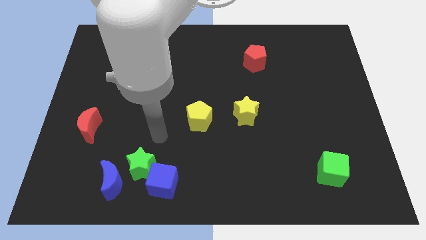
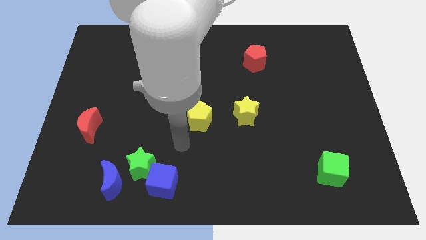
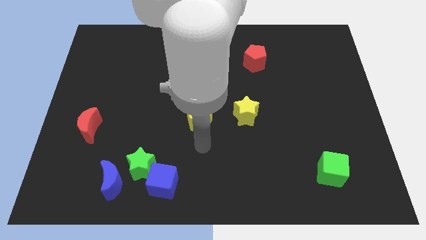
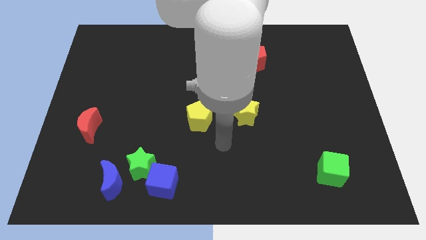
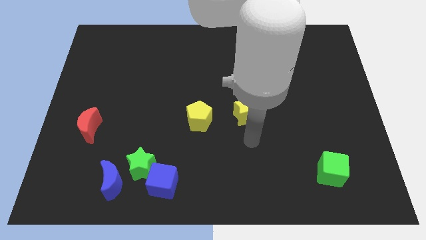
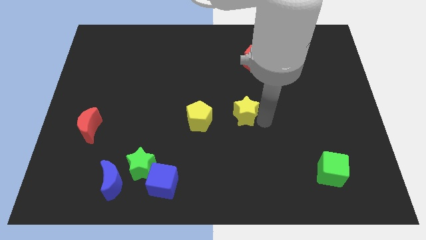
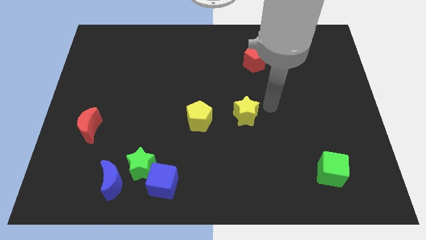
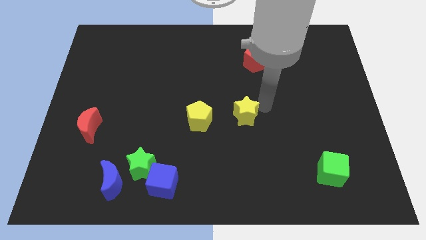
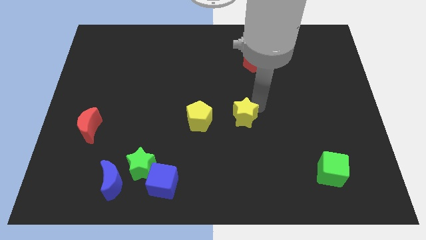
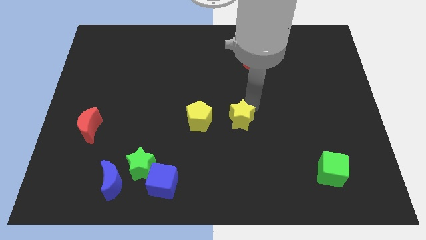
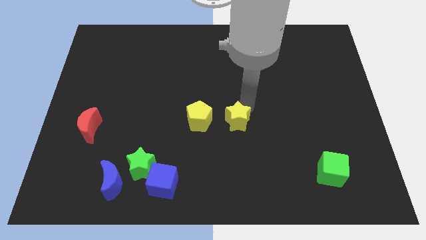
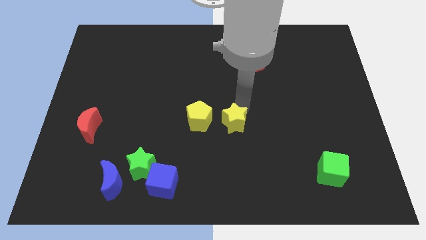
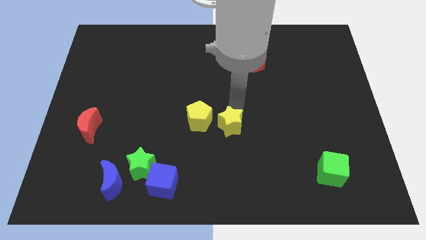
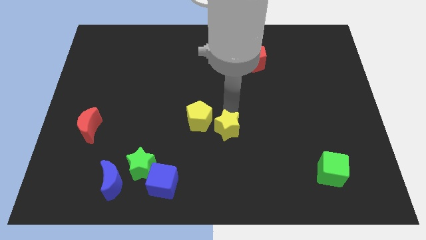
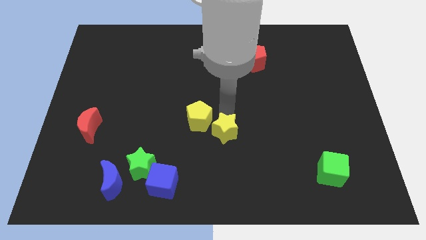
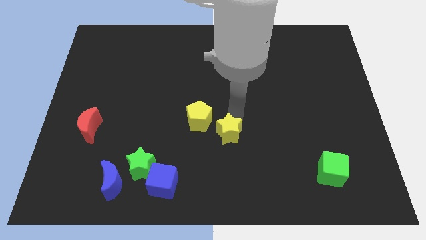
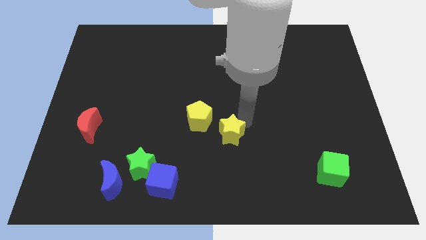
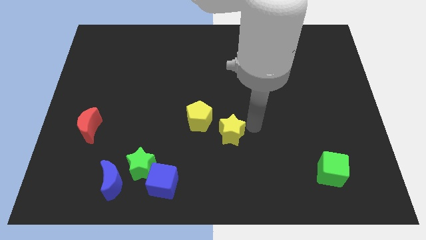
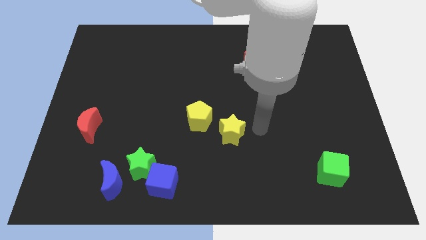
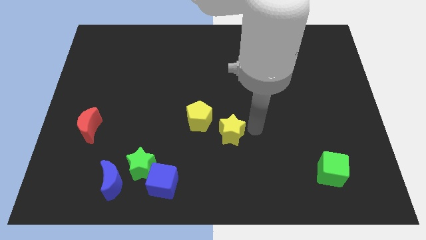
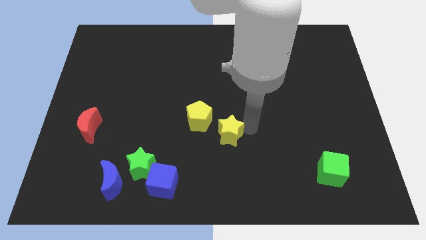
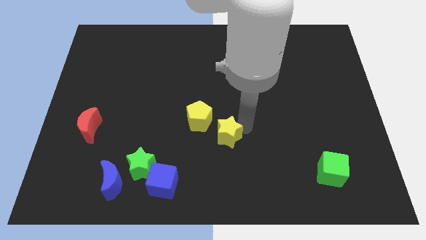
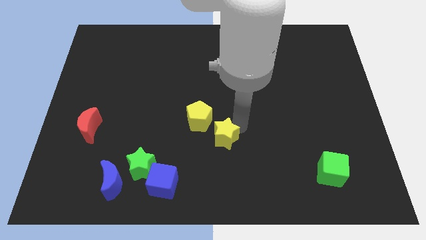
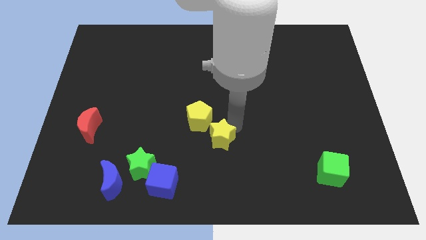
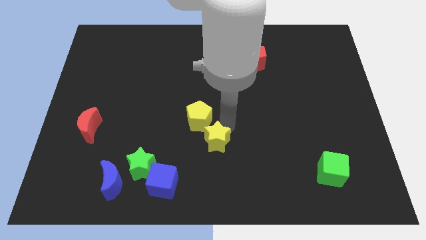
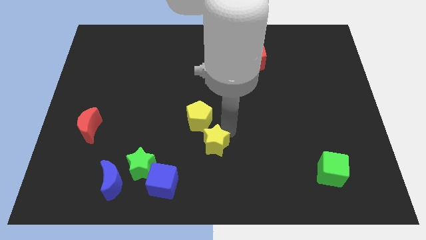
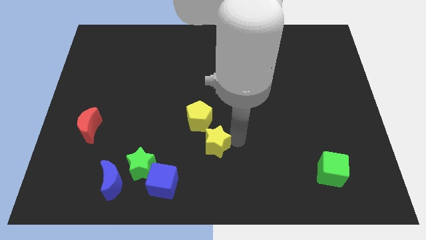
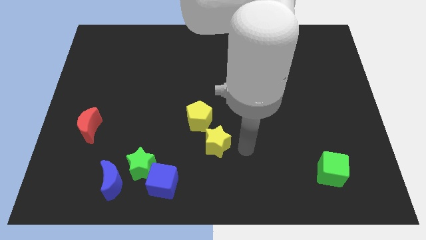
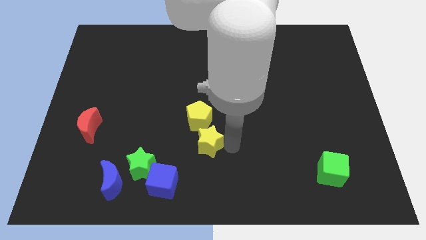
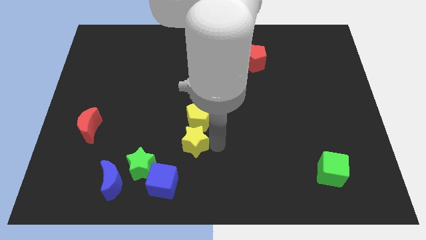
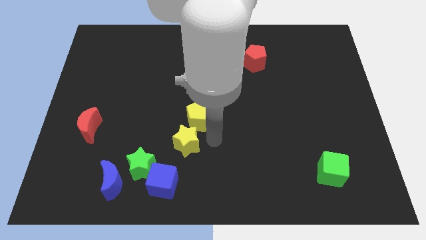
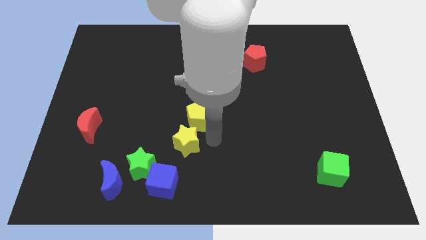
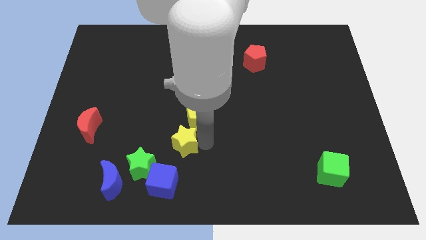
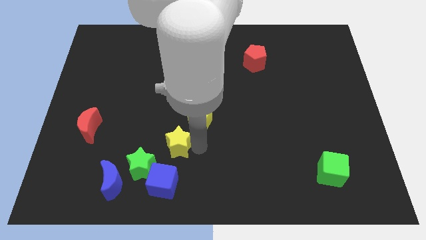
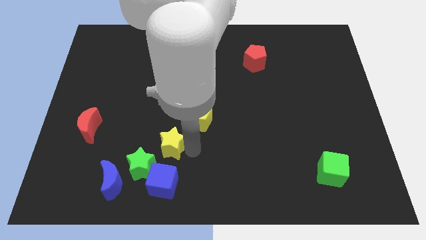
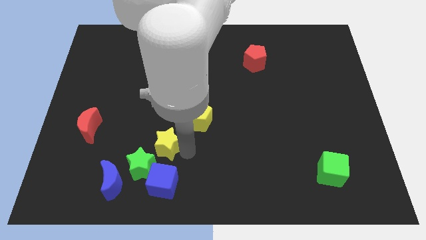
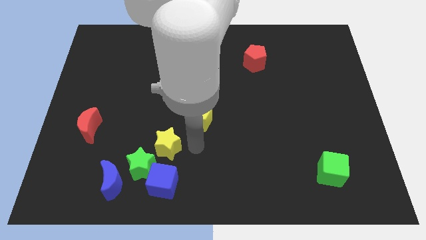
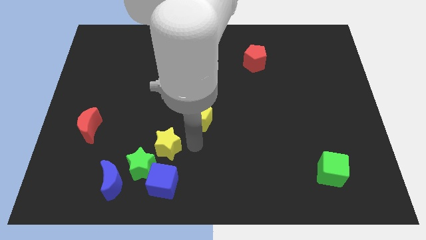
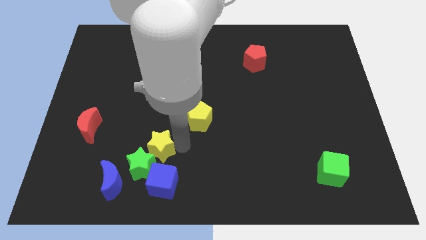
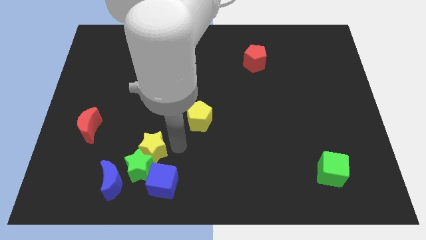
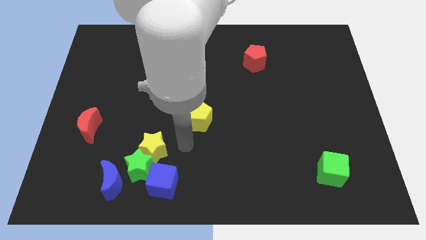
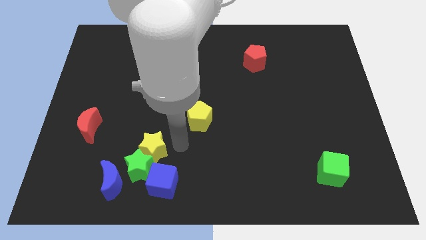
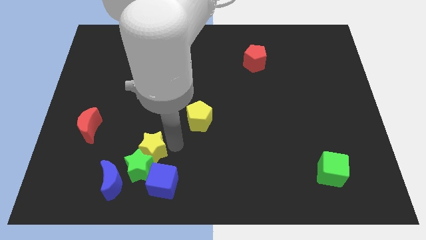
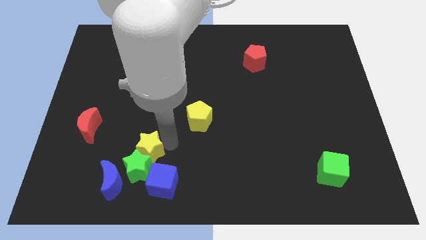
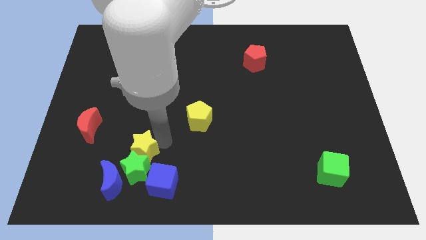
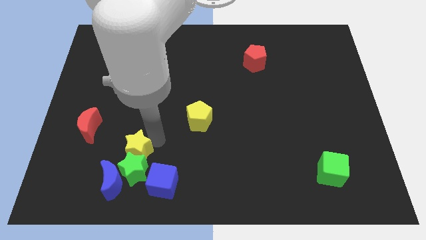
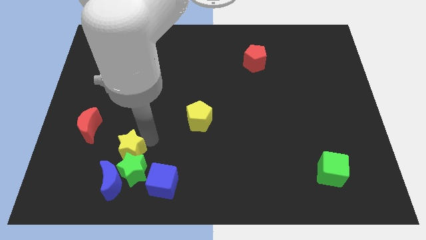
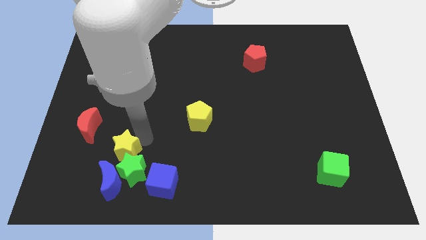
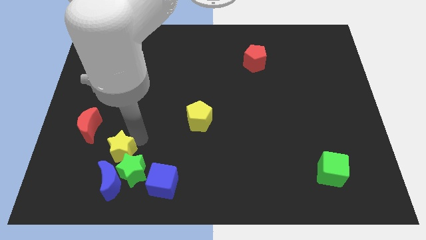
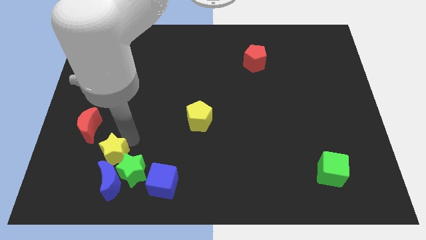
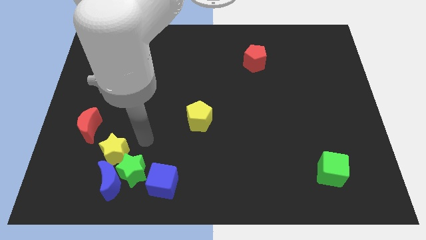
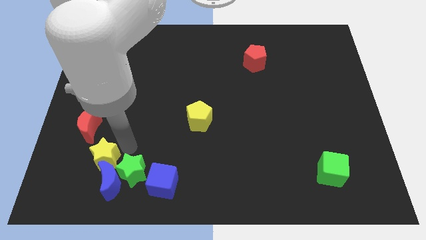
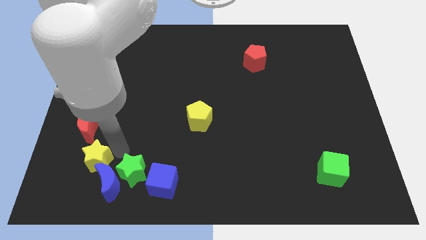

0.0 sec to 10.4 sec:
slide the yellow star to the bottom side of the red moon

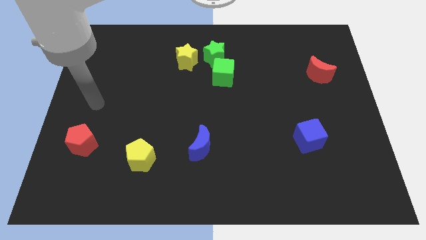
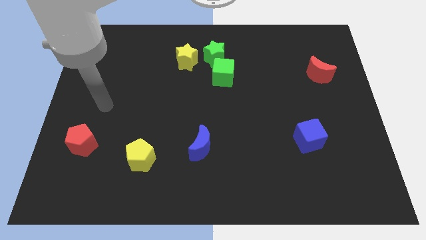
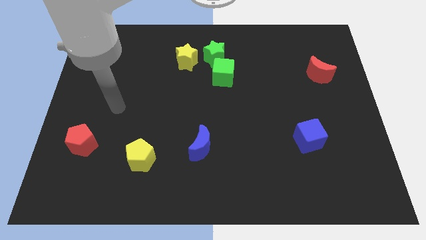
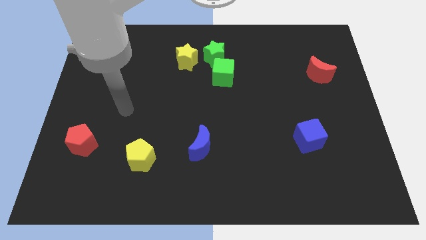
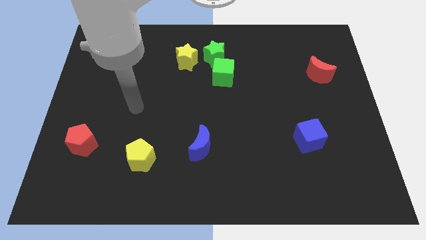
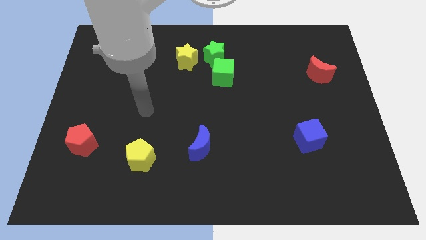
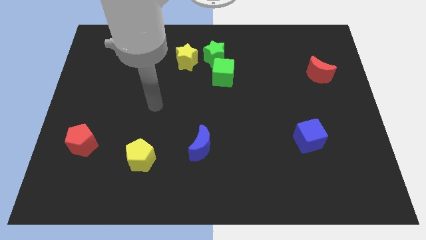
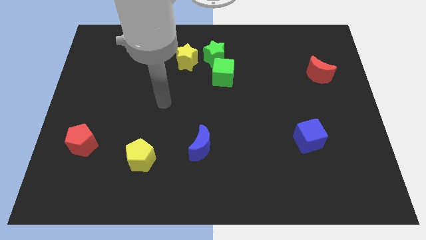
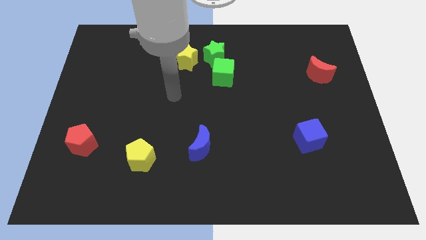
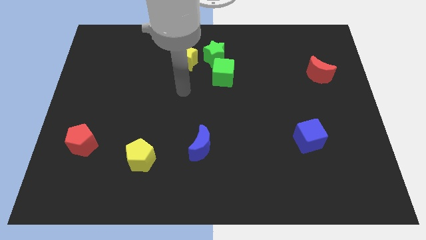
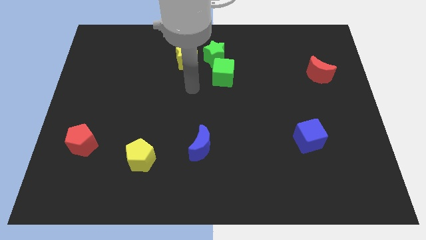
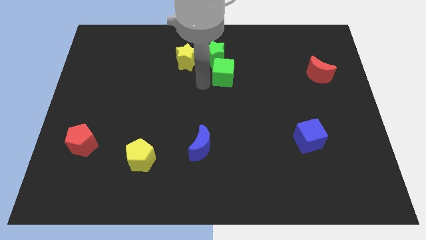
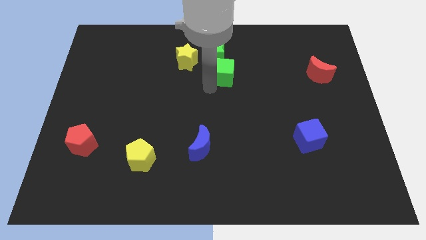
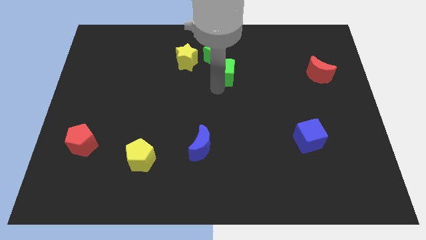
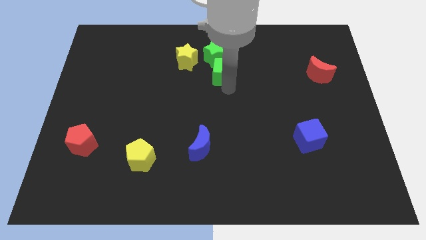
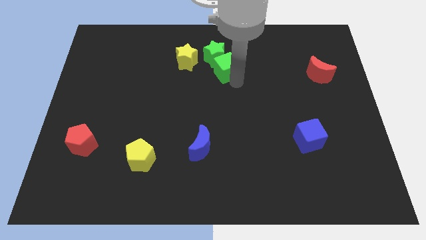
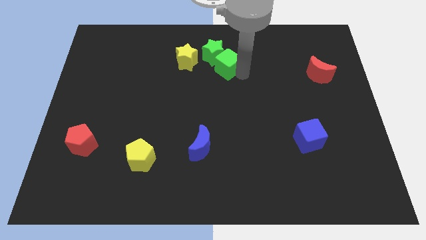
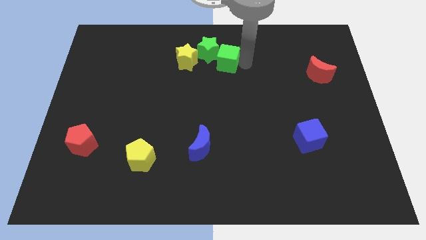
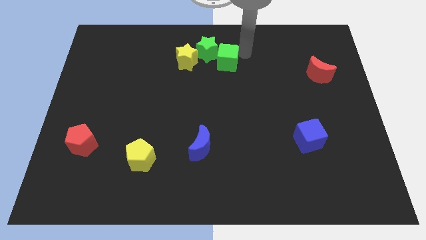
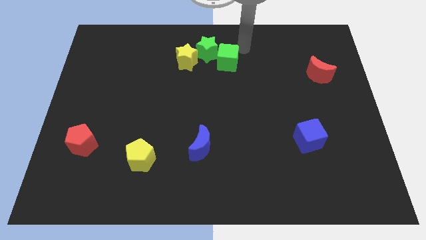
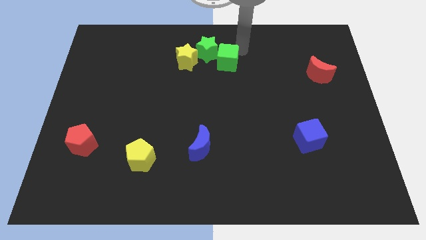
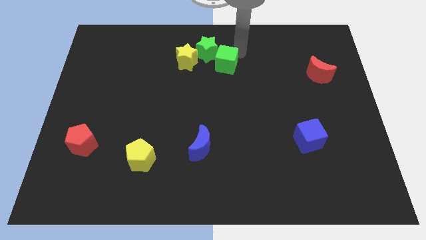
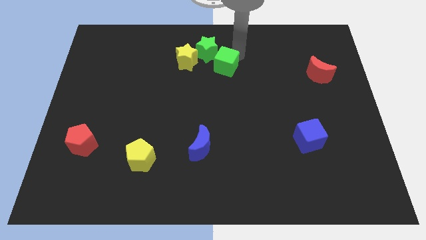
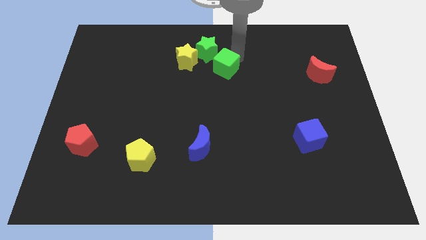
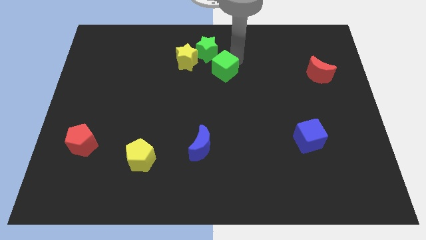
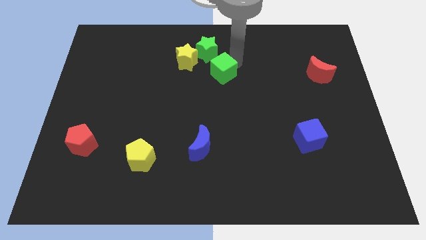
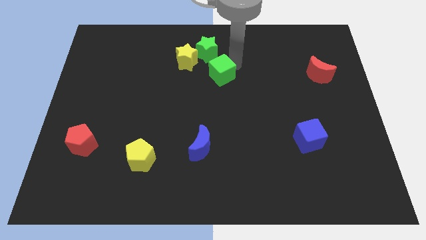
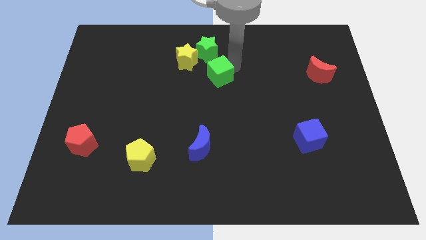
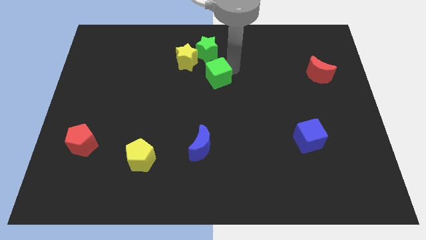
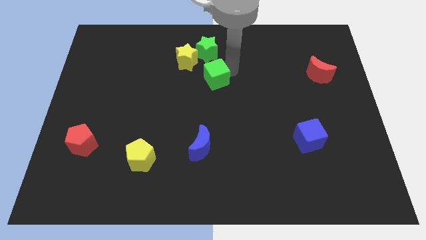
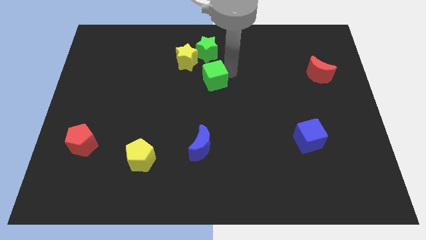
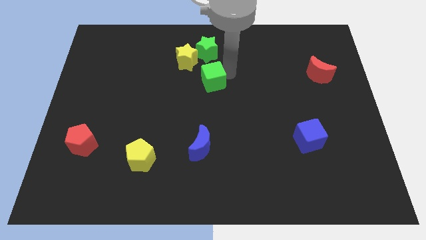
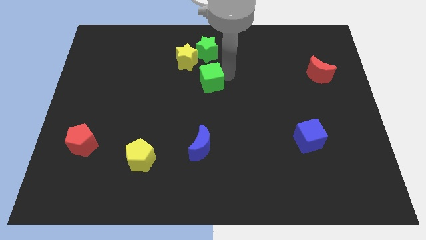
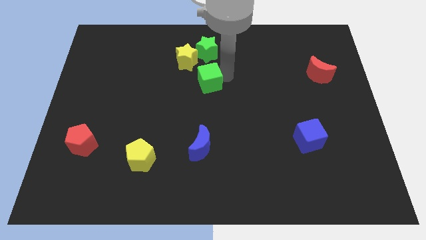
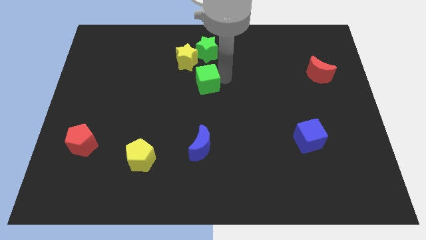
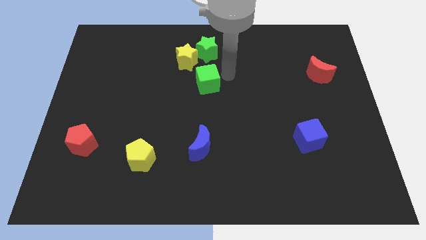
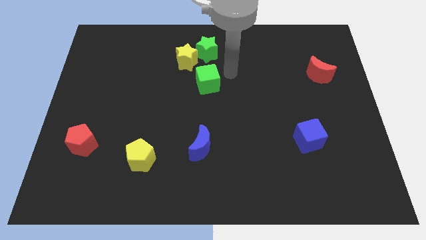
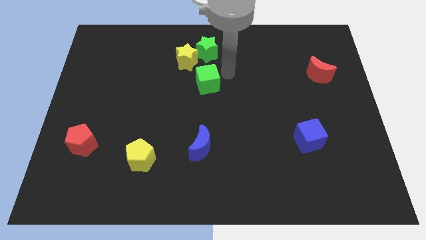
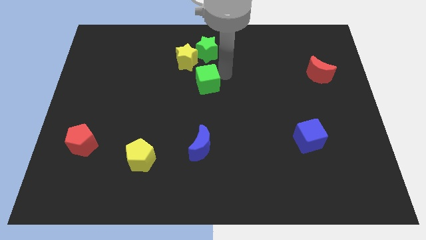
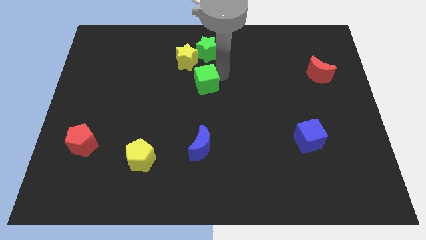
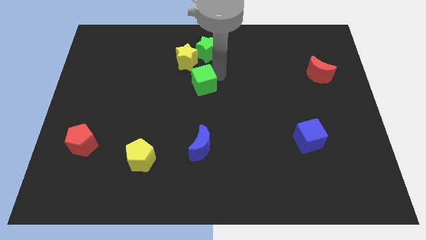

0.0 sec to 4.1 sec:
move the green cube to the bottom side of the yellow star
